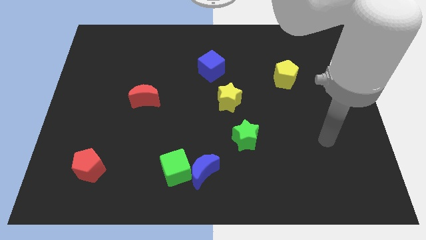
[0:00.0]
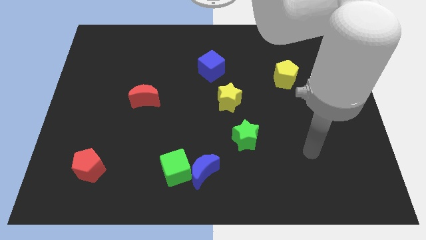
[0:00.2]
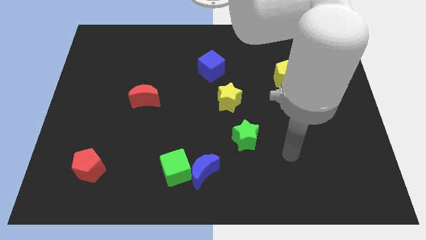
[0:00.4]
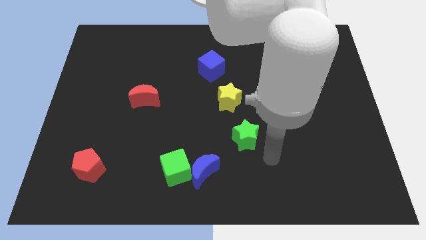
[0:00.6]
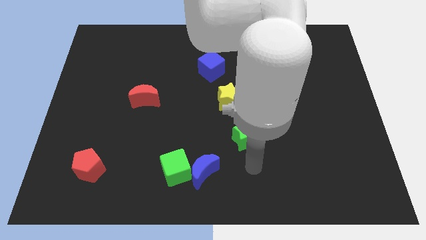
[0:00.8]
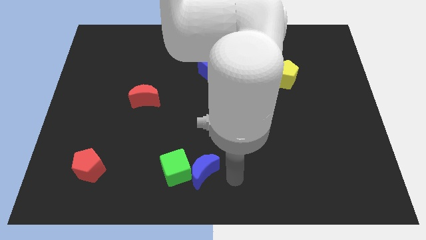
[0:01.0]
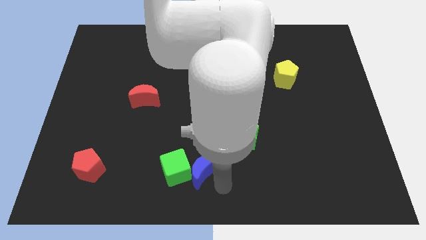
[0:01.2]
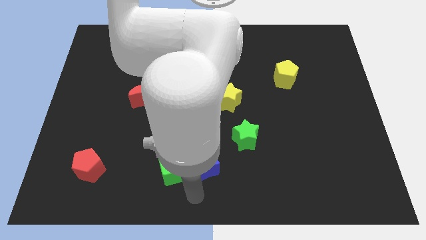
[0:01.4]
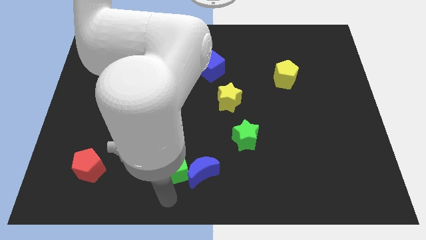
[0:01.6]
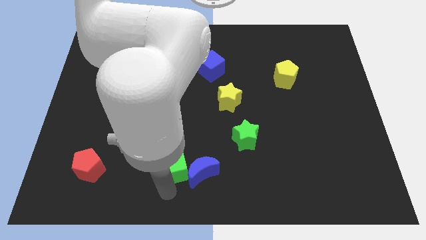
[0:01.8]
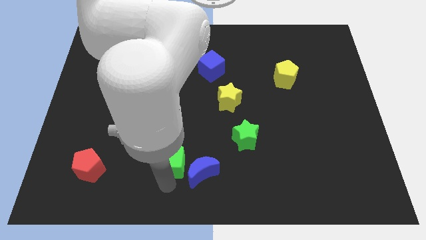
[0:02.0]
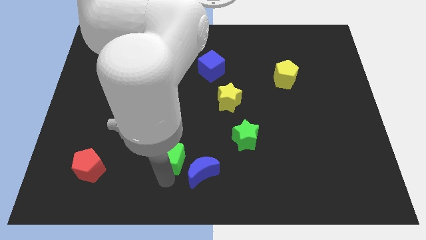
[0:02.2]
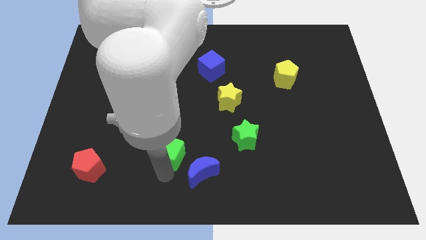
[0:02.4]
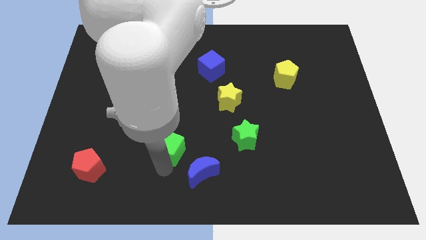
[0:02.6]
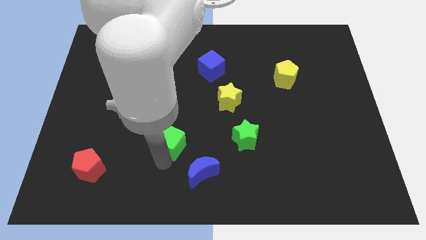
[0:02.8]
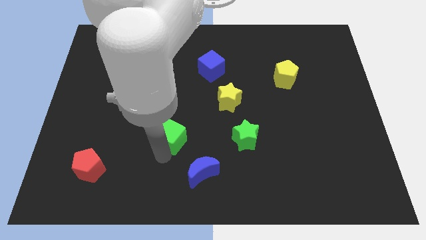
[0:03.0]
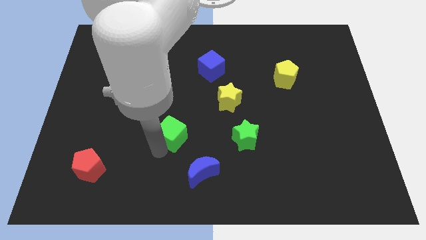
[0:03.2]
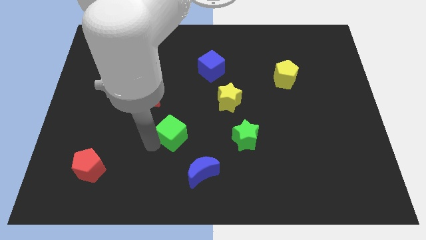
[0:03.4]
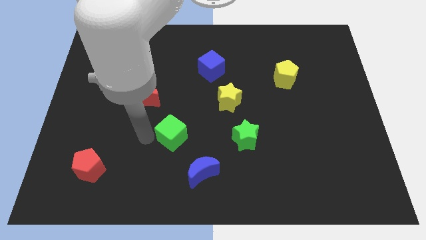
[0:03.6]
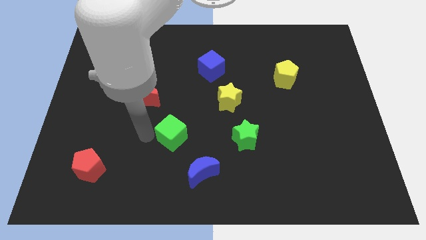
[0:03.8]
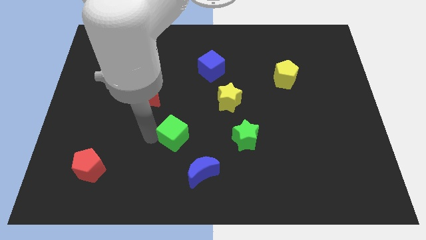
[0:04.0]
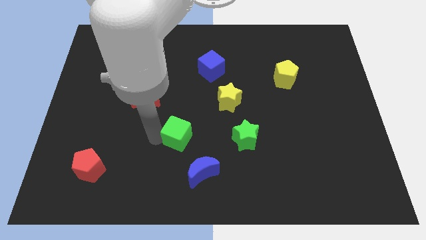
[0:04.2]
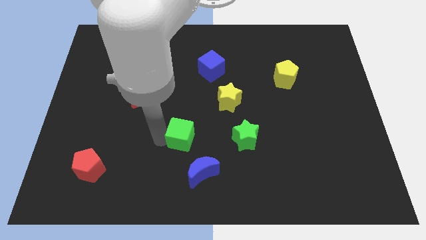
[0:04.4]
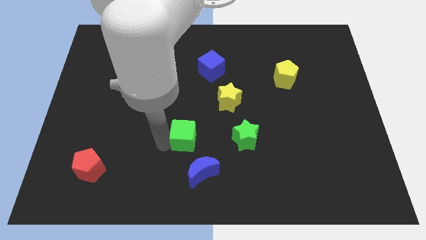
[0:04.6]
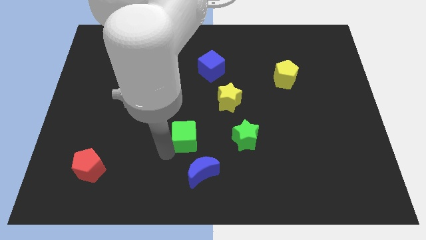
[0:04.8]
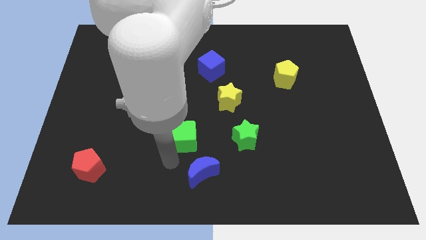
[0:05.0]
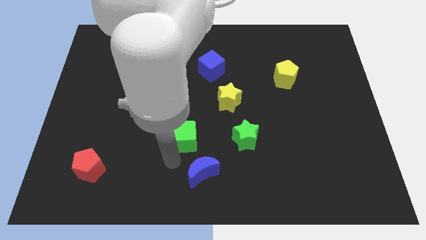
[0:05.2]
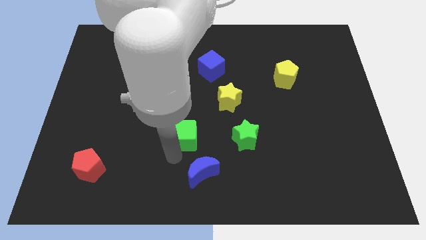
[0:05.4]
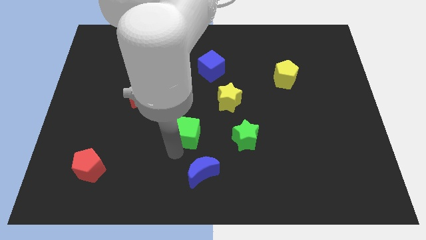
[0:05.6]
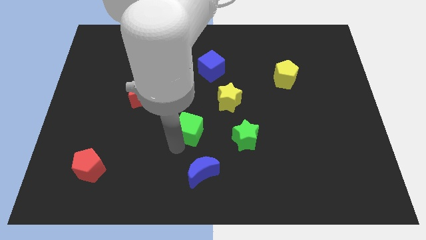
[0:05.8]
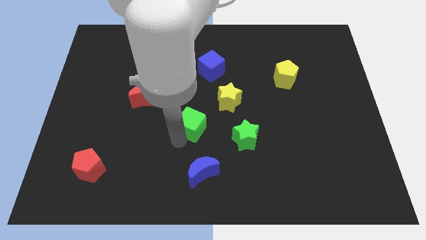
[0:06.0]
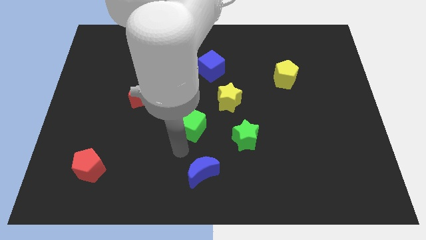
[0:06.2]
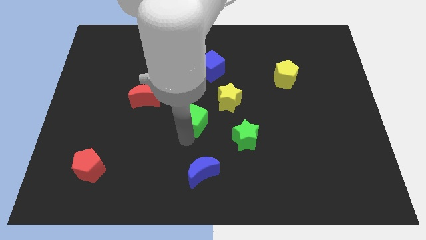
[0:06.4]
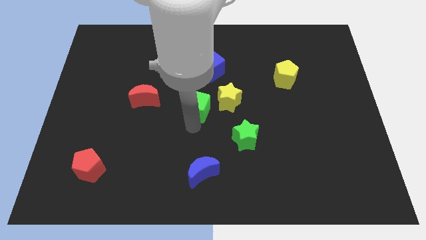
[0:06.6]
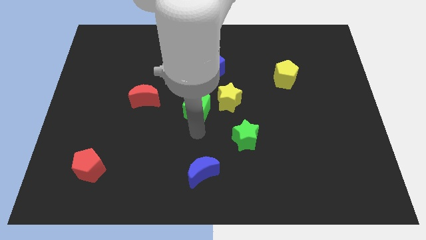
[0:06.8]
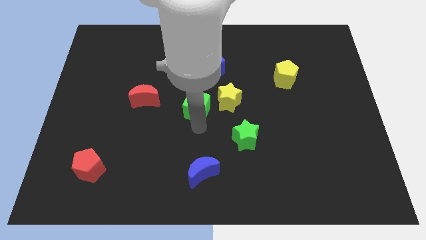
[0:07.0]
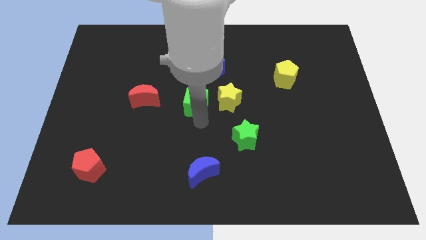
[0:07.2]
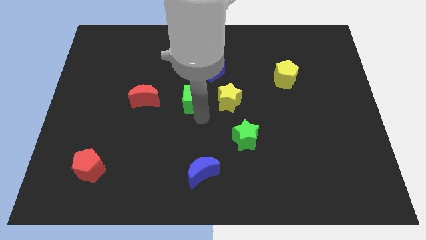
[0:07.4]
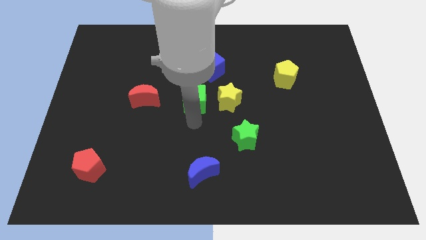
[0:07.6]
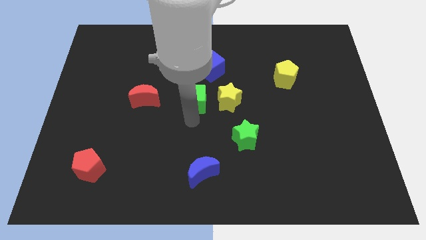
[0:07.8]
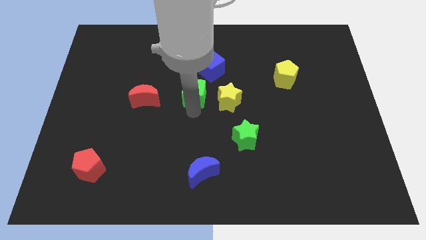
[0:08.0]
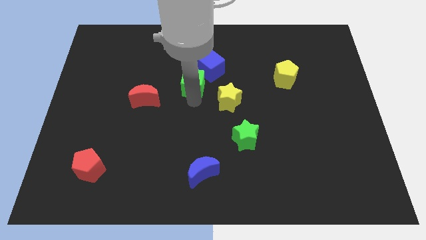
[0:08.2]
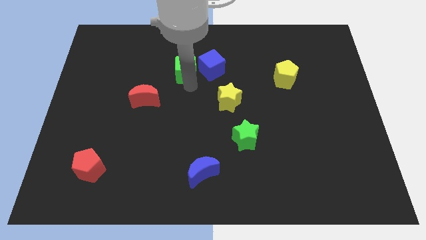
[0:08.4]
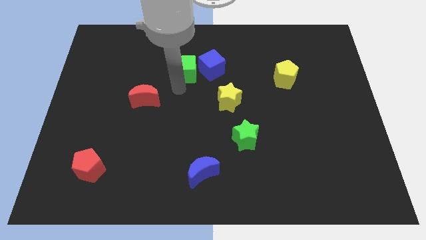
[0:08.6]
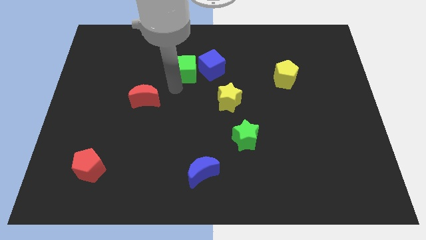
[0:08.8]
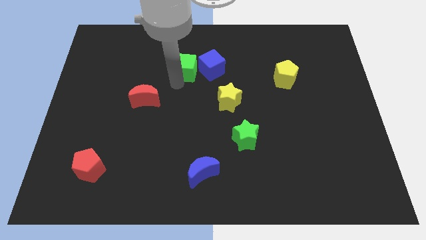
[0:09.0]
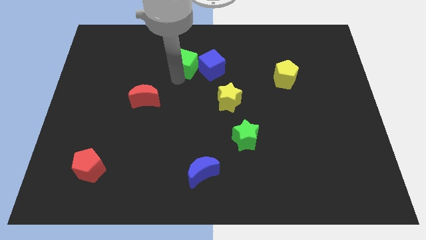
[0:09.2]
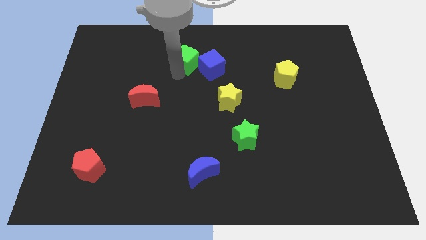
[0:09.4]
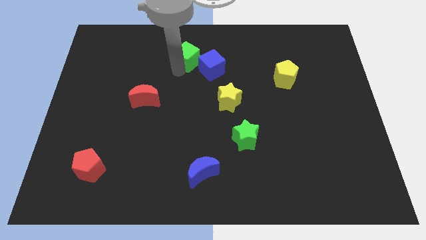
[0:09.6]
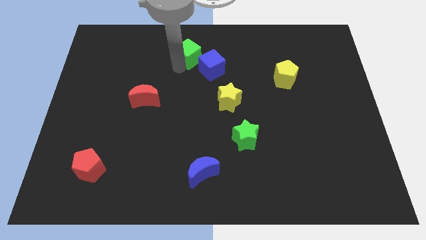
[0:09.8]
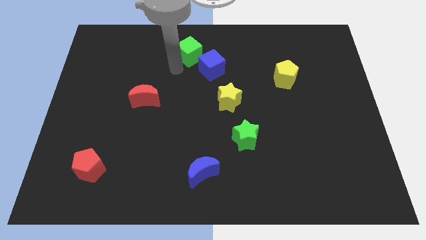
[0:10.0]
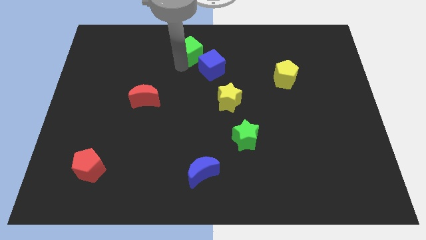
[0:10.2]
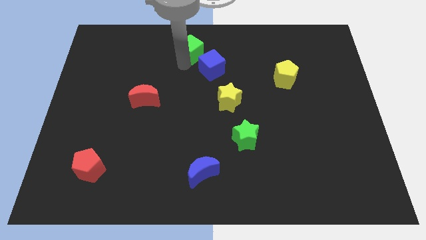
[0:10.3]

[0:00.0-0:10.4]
slide the green cube to the top
